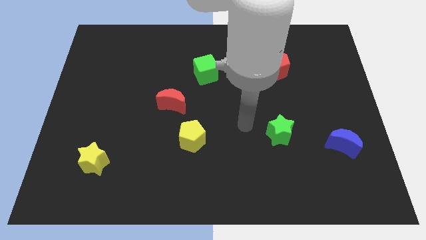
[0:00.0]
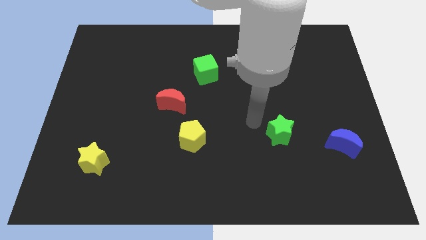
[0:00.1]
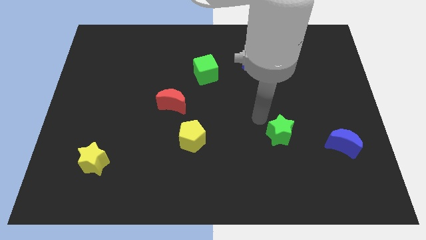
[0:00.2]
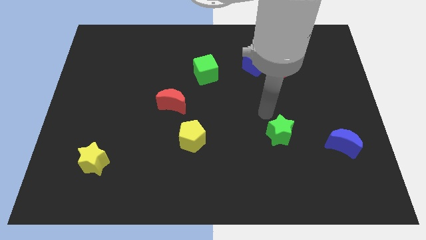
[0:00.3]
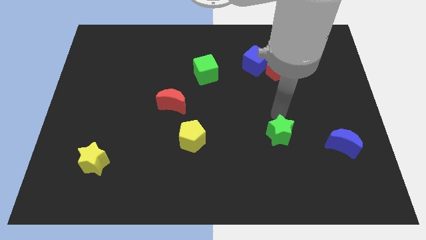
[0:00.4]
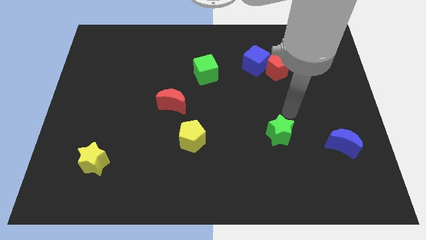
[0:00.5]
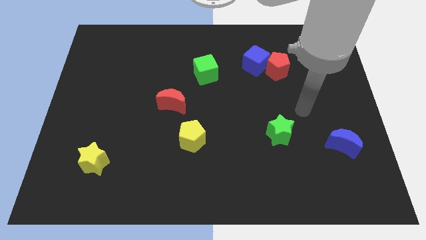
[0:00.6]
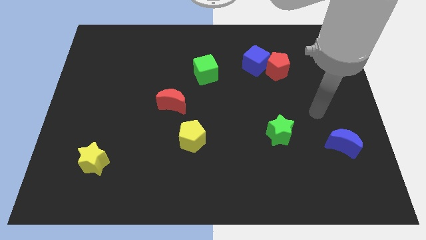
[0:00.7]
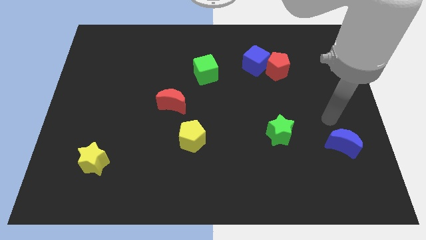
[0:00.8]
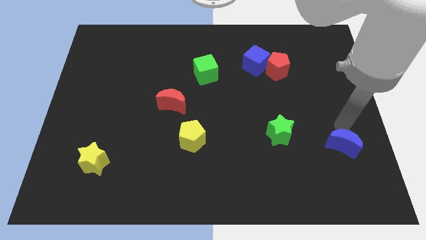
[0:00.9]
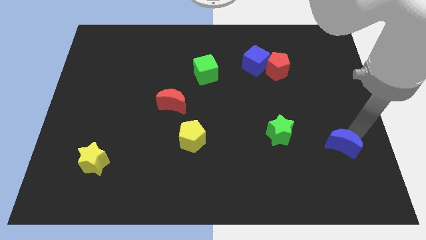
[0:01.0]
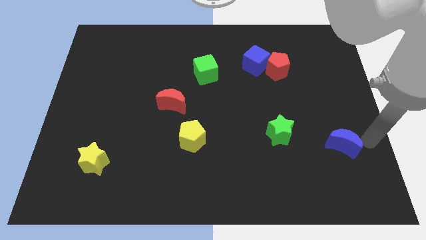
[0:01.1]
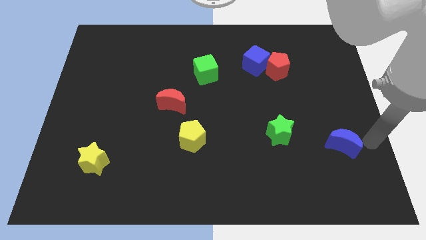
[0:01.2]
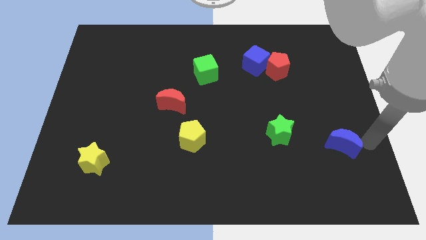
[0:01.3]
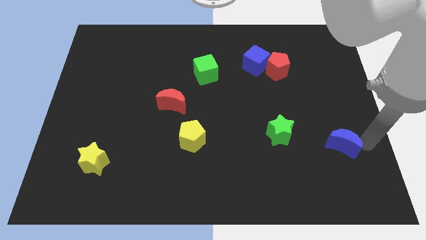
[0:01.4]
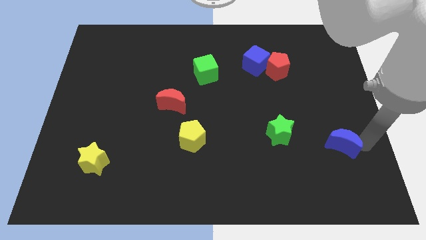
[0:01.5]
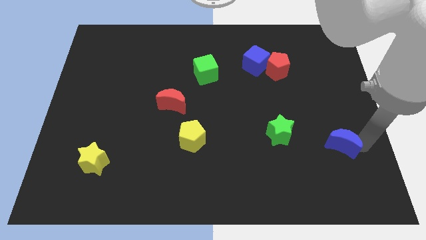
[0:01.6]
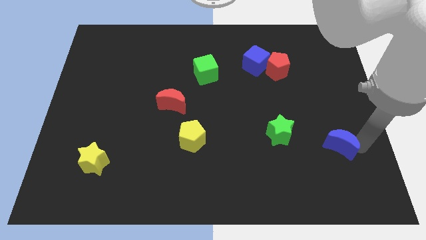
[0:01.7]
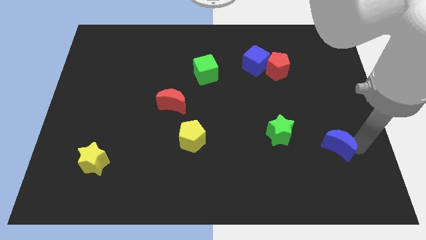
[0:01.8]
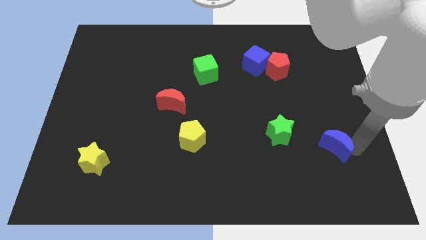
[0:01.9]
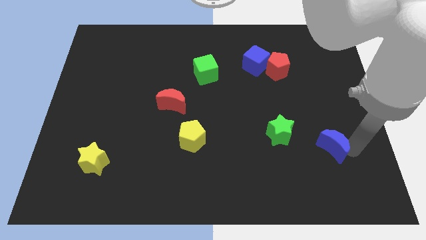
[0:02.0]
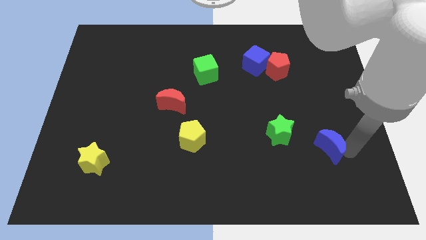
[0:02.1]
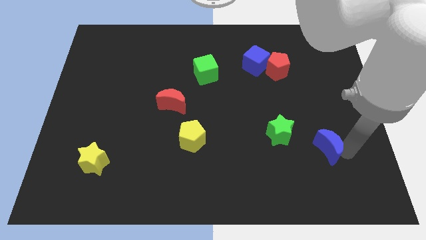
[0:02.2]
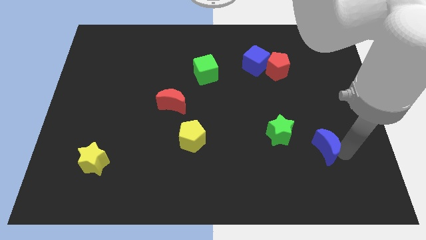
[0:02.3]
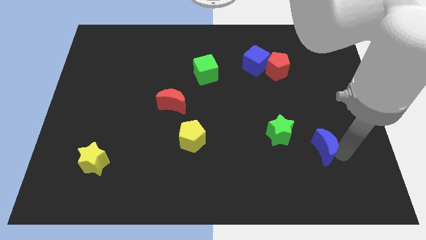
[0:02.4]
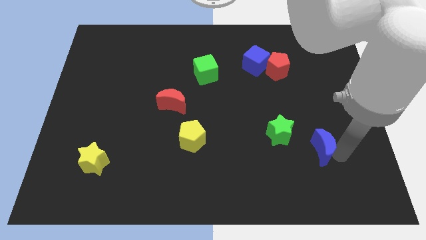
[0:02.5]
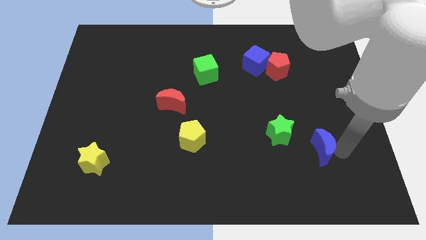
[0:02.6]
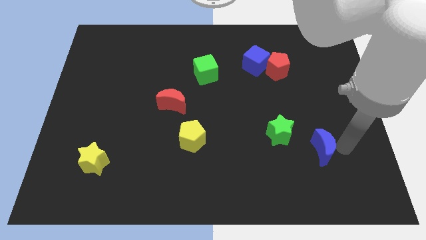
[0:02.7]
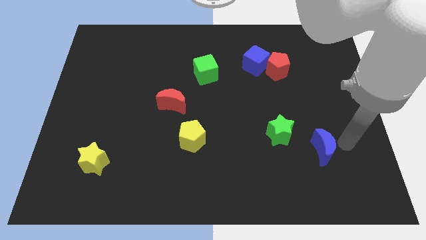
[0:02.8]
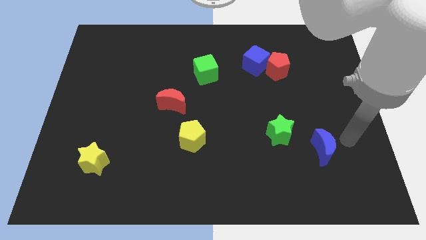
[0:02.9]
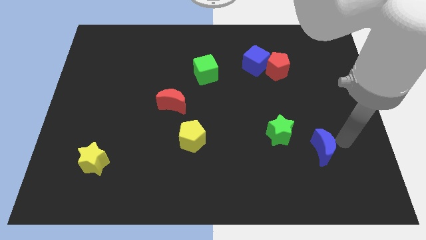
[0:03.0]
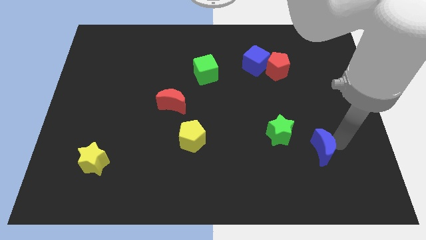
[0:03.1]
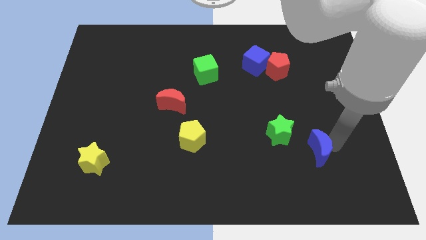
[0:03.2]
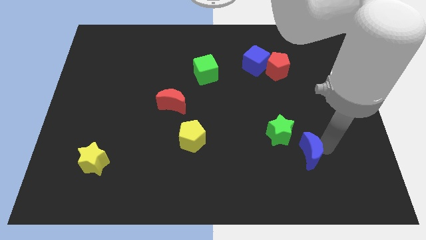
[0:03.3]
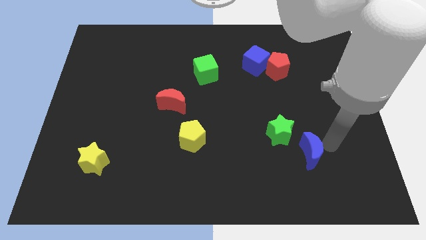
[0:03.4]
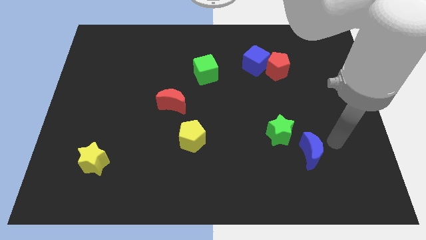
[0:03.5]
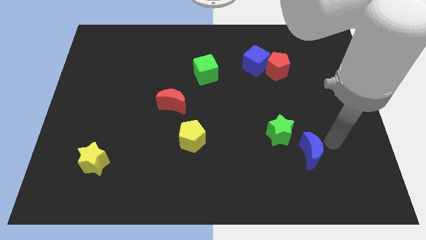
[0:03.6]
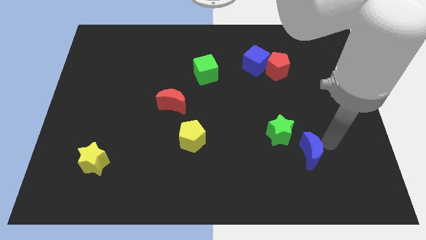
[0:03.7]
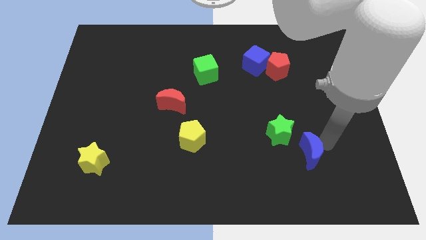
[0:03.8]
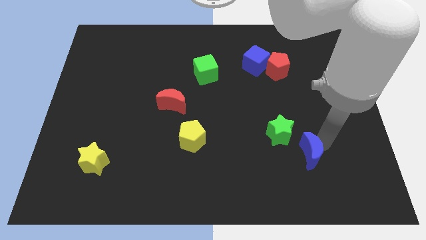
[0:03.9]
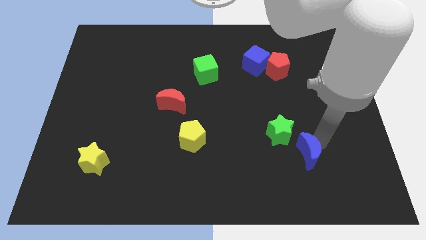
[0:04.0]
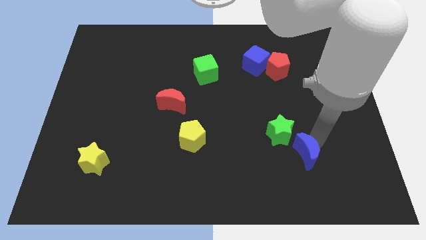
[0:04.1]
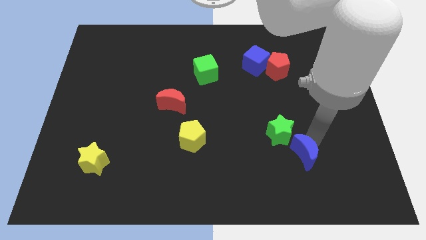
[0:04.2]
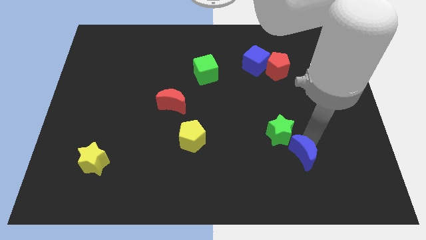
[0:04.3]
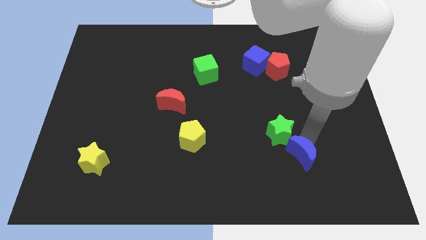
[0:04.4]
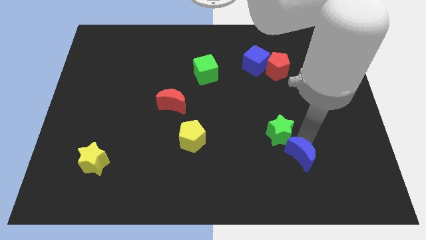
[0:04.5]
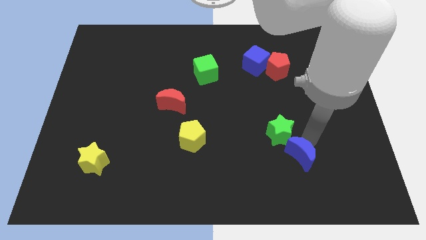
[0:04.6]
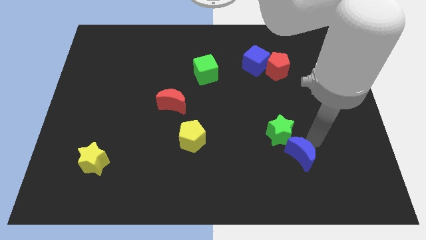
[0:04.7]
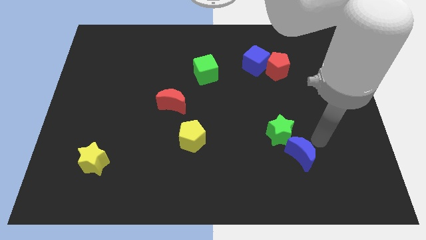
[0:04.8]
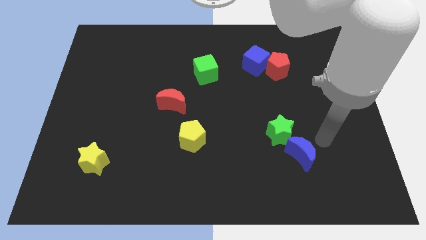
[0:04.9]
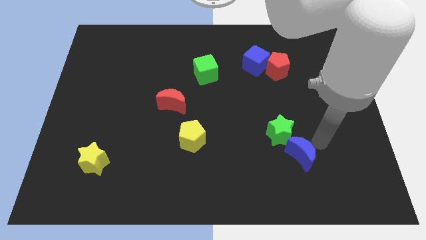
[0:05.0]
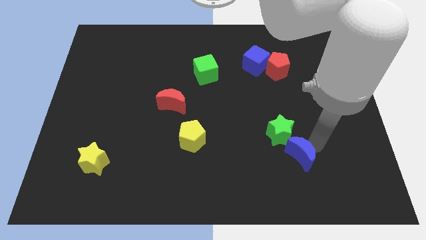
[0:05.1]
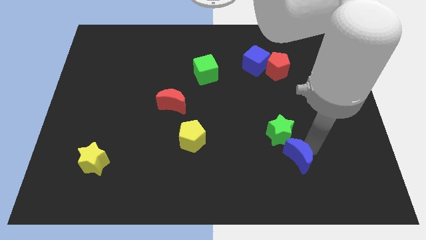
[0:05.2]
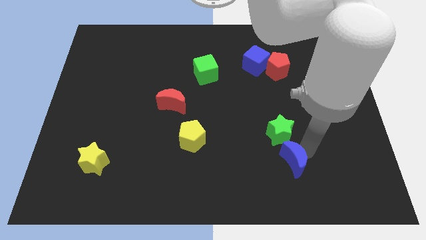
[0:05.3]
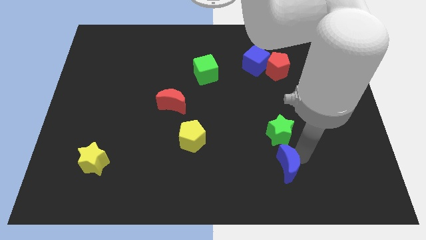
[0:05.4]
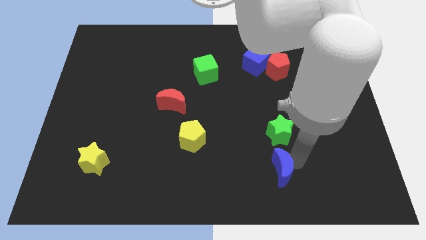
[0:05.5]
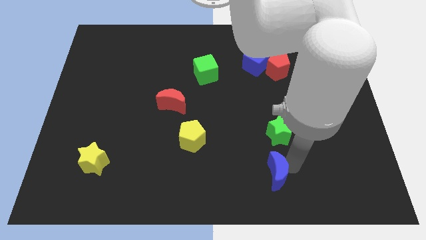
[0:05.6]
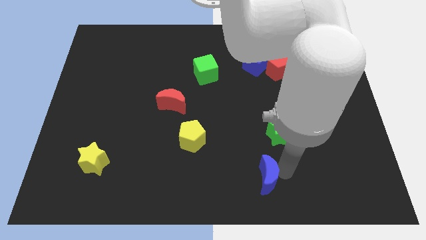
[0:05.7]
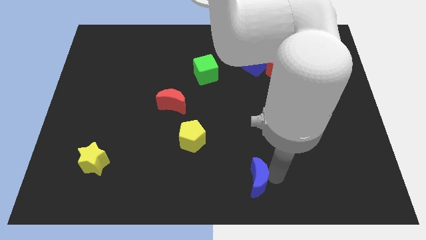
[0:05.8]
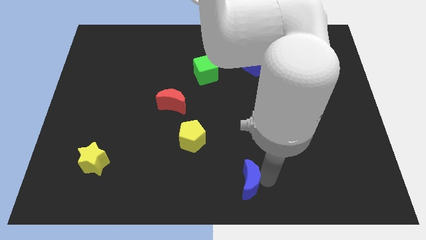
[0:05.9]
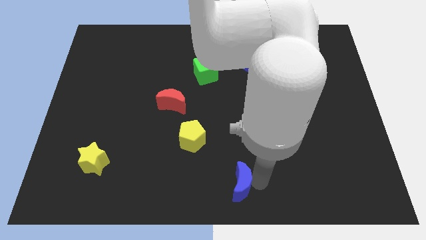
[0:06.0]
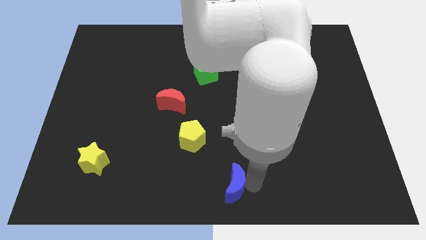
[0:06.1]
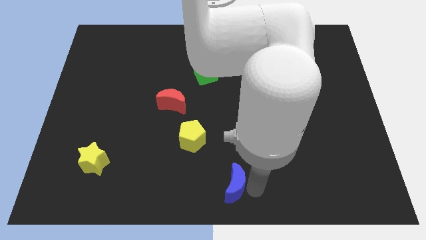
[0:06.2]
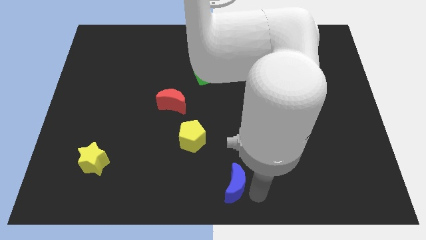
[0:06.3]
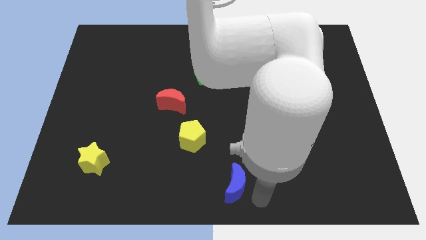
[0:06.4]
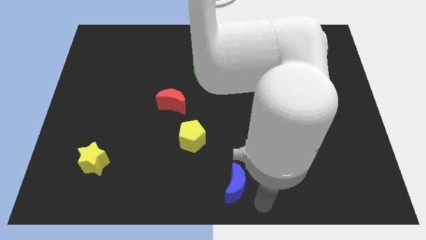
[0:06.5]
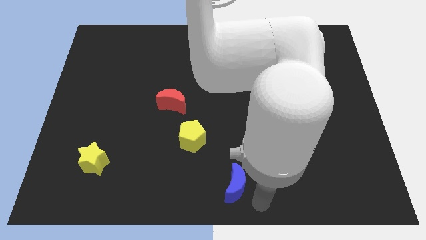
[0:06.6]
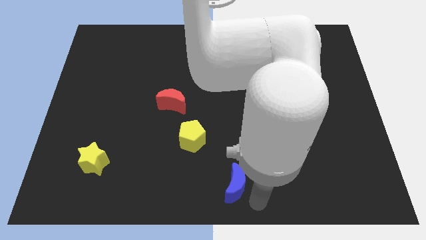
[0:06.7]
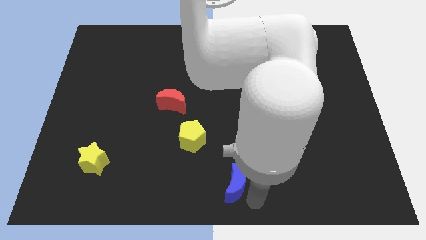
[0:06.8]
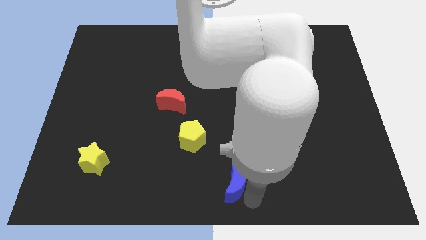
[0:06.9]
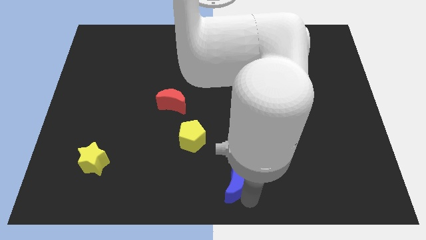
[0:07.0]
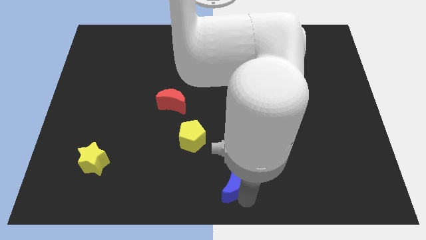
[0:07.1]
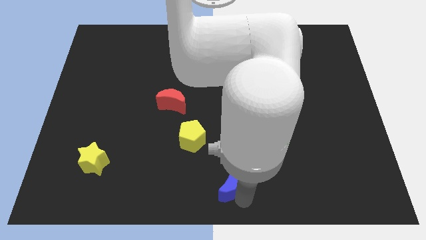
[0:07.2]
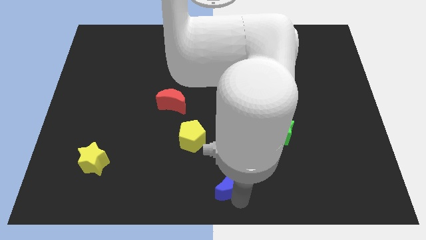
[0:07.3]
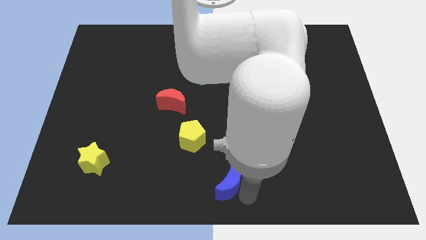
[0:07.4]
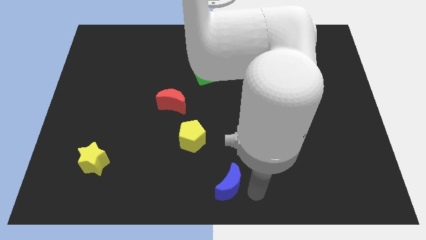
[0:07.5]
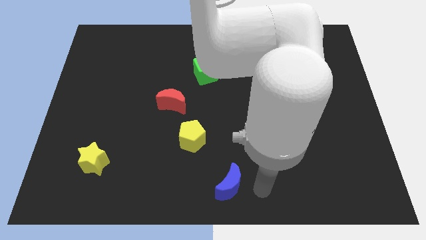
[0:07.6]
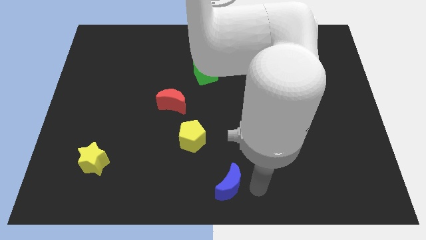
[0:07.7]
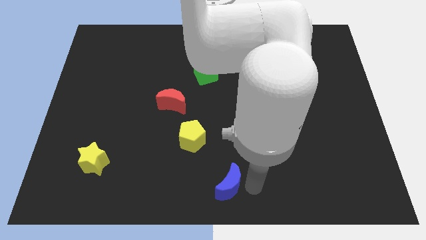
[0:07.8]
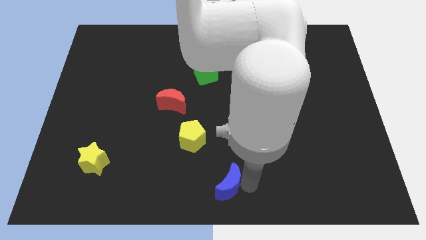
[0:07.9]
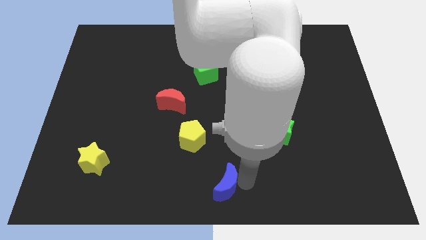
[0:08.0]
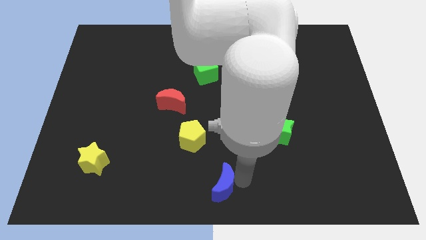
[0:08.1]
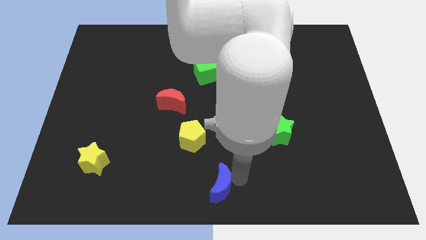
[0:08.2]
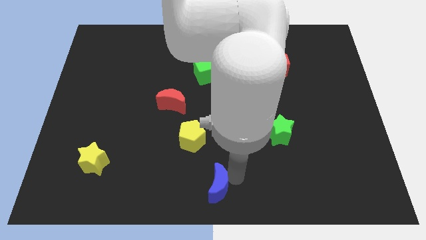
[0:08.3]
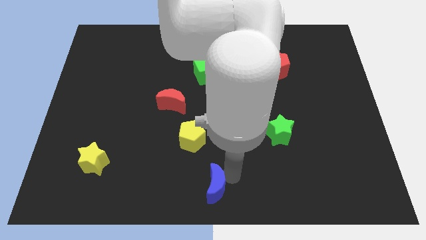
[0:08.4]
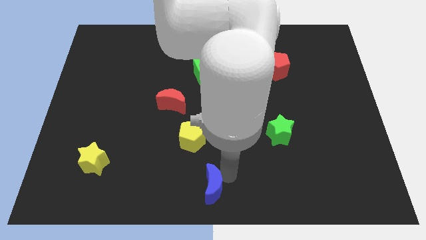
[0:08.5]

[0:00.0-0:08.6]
put the blue moon to the bottom side of the yellow pentagon
